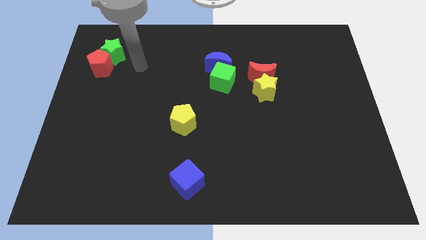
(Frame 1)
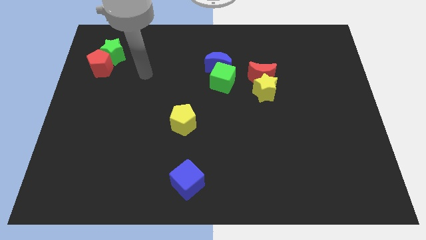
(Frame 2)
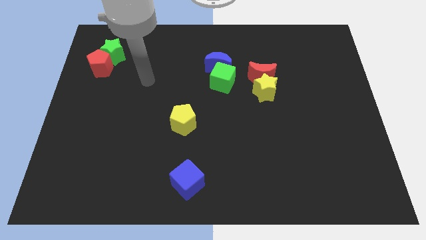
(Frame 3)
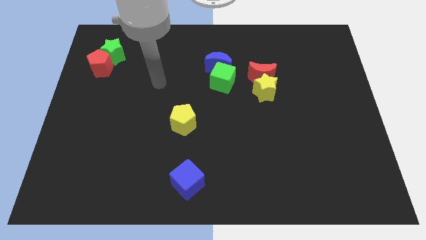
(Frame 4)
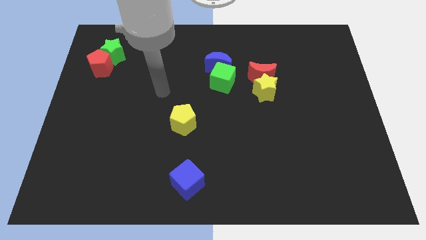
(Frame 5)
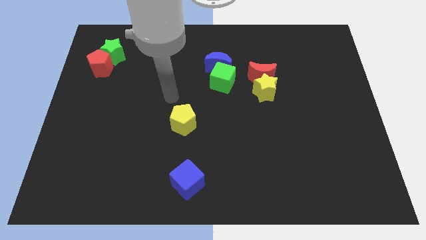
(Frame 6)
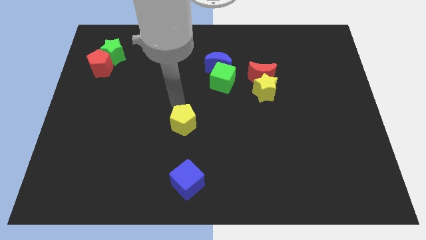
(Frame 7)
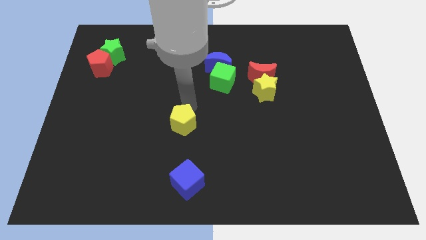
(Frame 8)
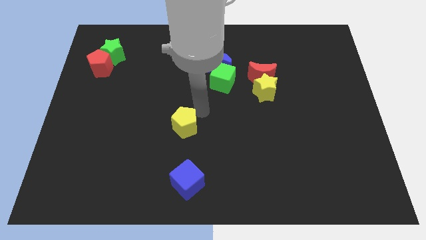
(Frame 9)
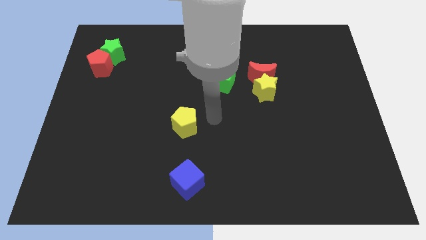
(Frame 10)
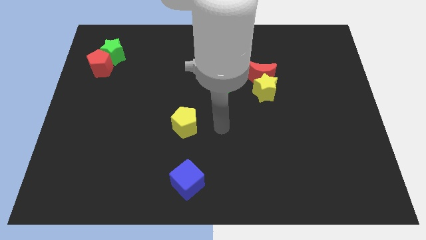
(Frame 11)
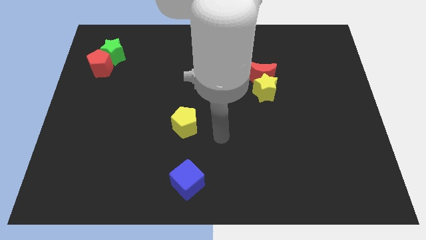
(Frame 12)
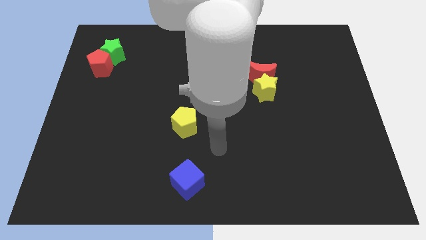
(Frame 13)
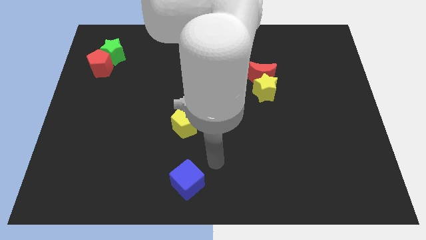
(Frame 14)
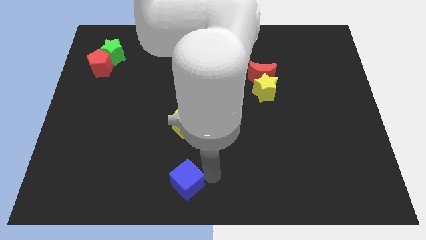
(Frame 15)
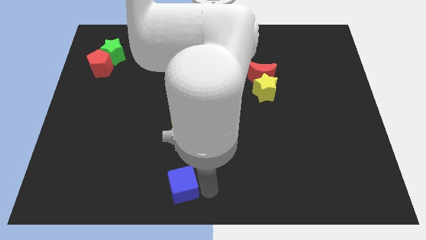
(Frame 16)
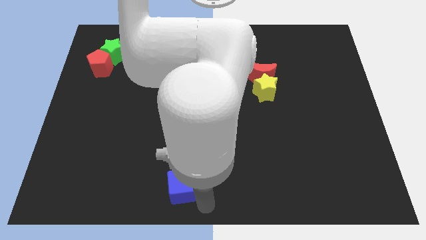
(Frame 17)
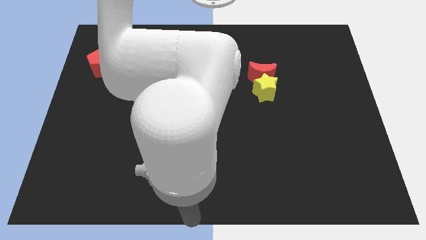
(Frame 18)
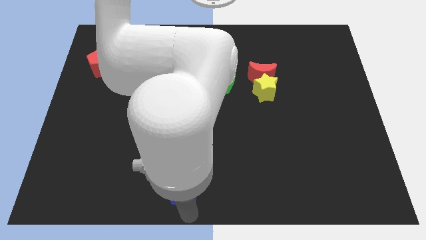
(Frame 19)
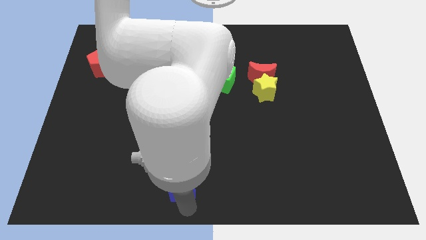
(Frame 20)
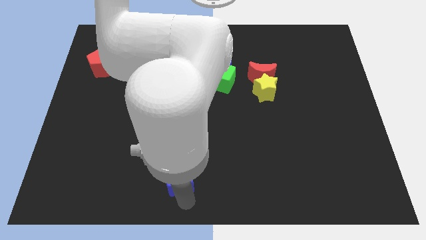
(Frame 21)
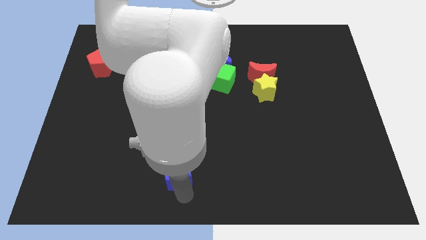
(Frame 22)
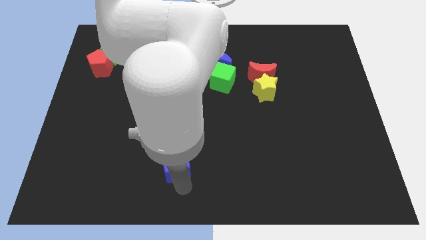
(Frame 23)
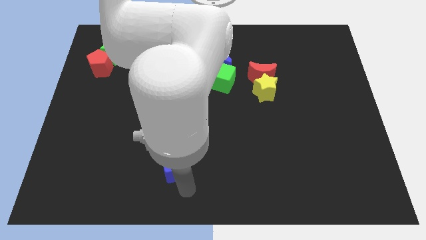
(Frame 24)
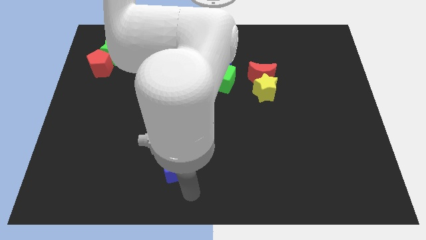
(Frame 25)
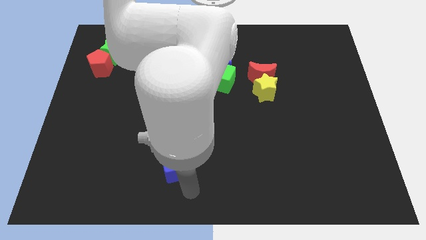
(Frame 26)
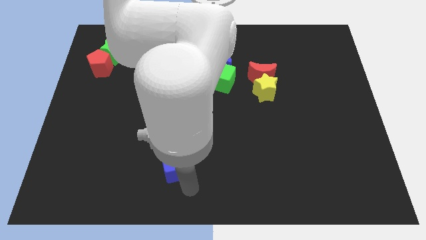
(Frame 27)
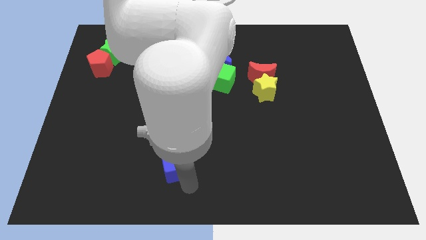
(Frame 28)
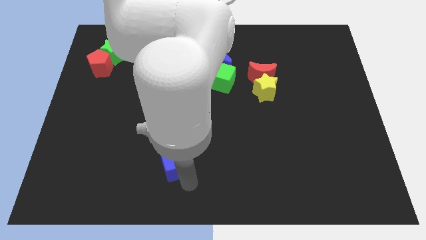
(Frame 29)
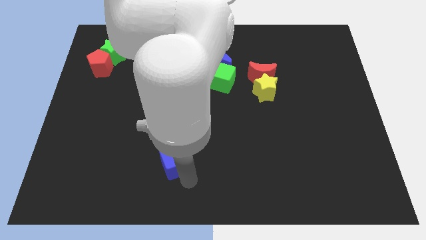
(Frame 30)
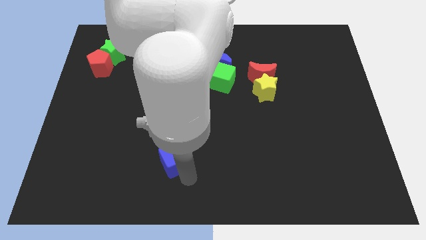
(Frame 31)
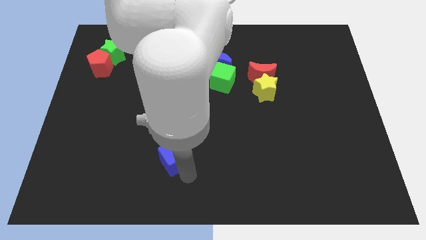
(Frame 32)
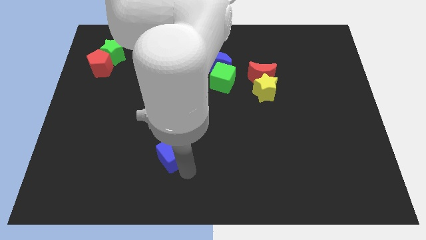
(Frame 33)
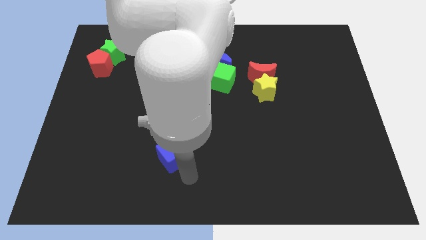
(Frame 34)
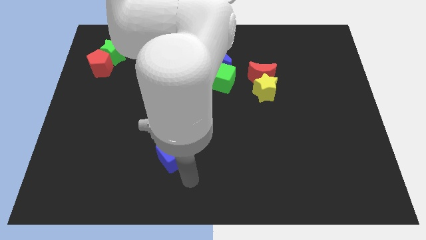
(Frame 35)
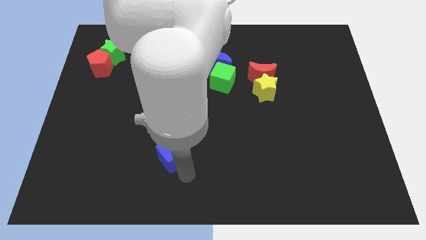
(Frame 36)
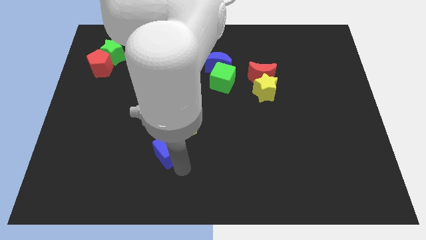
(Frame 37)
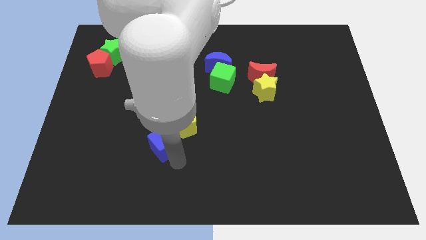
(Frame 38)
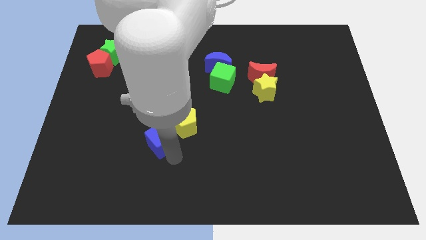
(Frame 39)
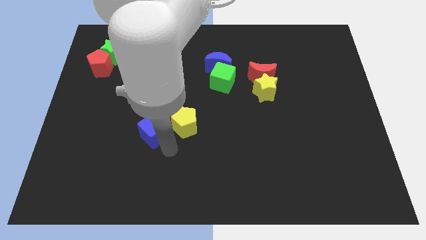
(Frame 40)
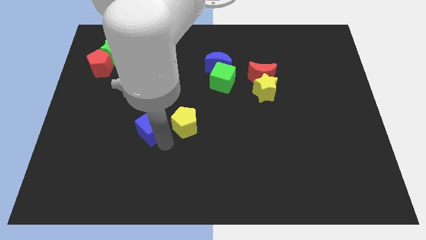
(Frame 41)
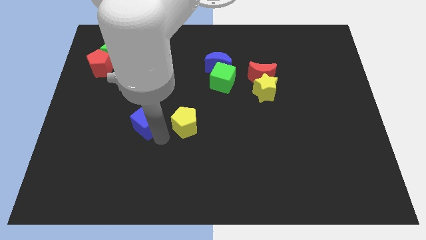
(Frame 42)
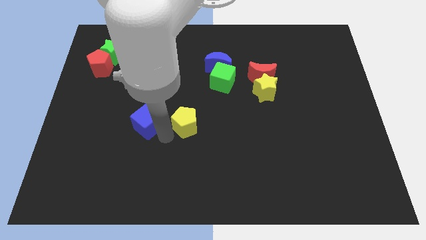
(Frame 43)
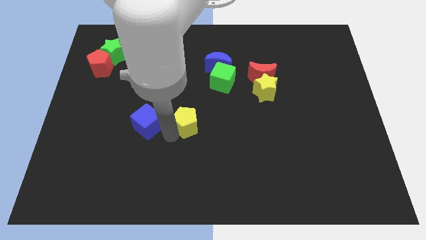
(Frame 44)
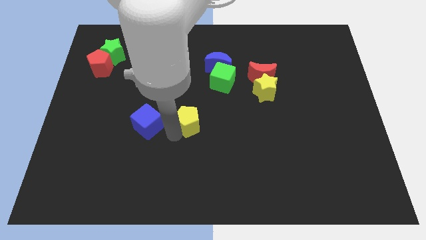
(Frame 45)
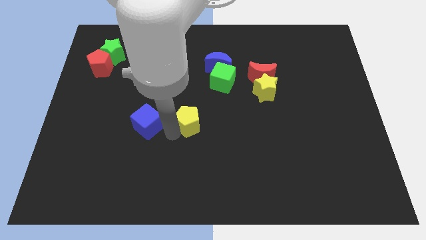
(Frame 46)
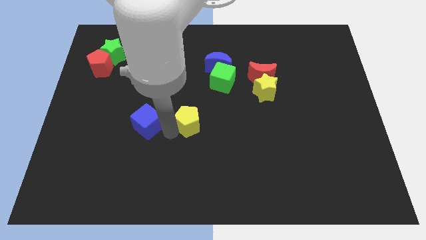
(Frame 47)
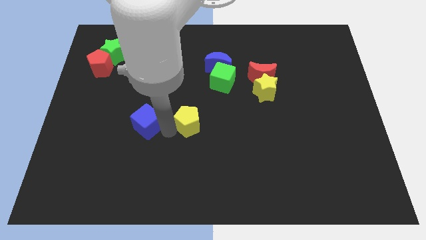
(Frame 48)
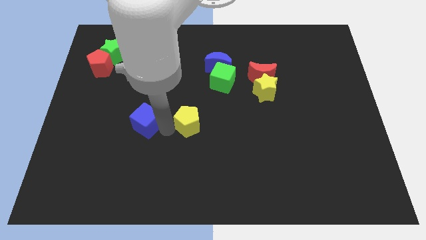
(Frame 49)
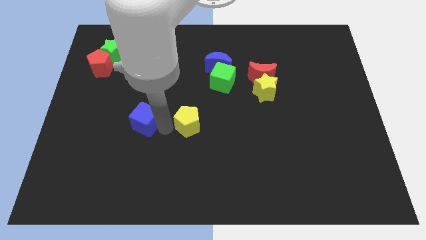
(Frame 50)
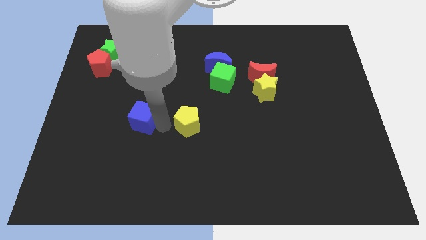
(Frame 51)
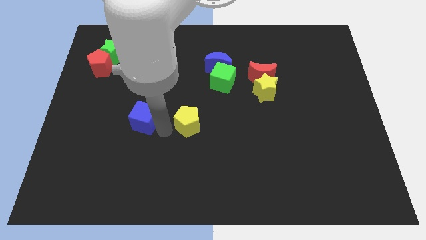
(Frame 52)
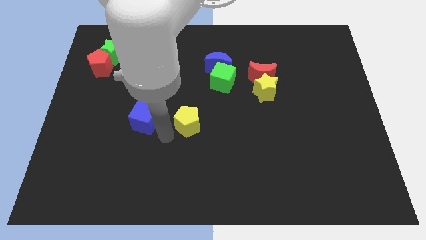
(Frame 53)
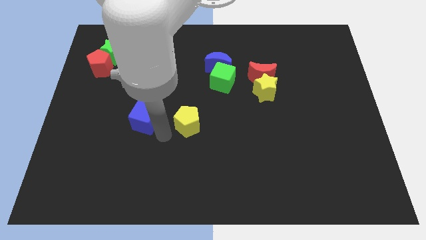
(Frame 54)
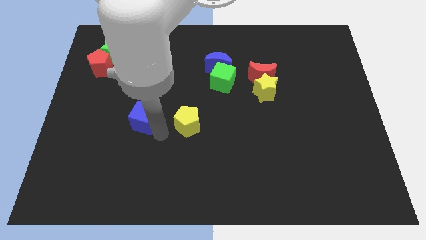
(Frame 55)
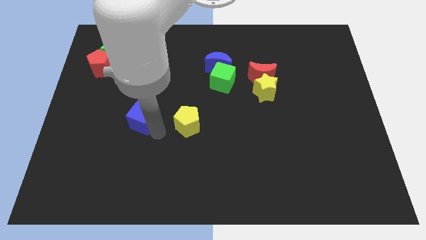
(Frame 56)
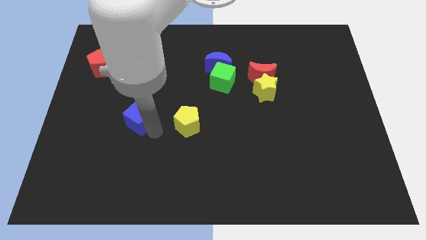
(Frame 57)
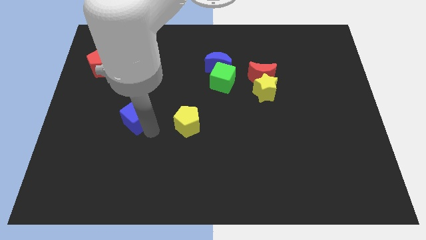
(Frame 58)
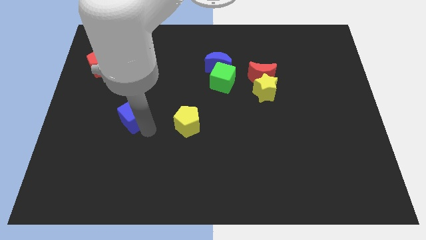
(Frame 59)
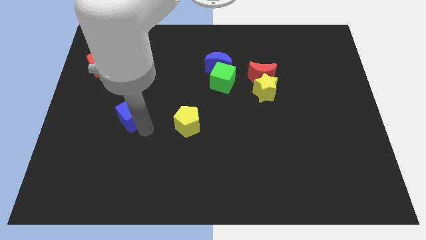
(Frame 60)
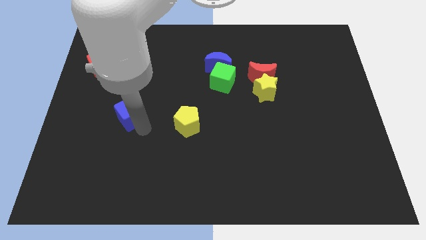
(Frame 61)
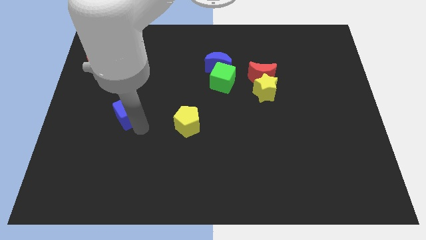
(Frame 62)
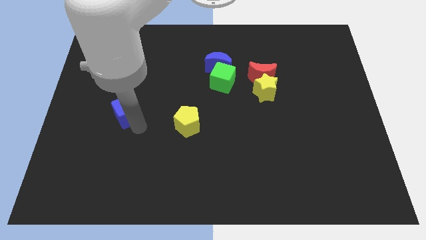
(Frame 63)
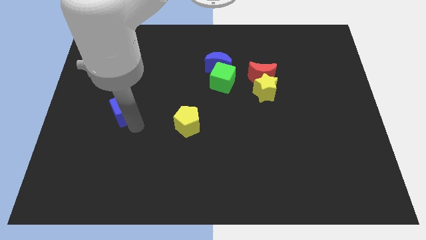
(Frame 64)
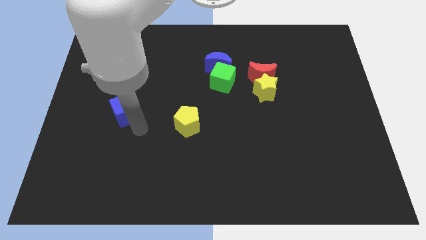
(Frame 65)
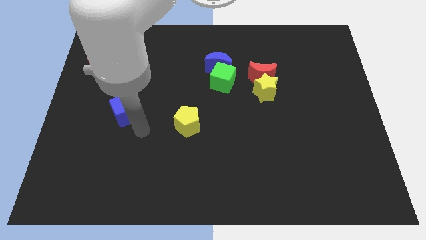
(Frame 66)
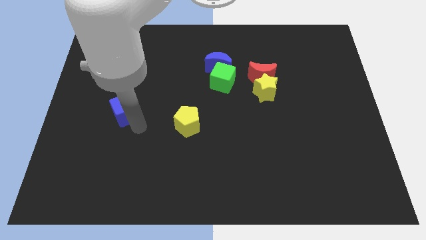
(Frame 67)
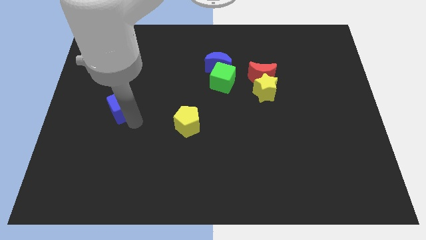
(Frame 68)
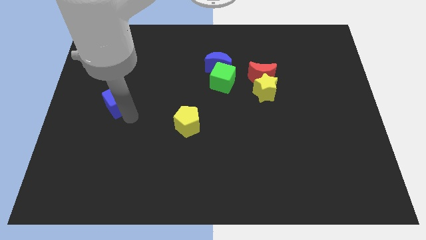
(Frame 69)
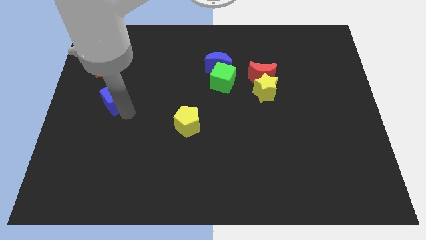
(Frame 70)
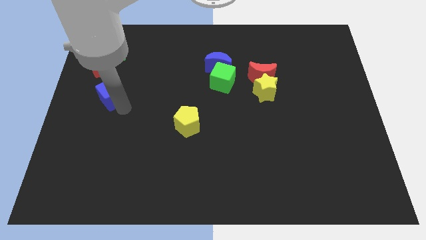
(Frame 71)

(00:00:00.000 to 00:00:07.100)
move the blue cube below the green star

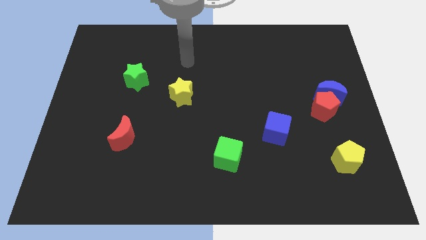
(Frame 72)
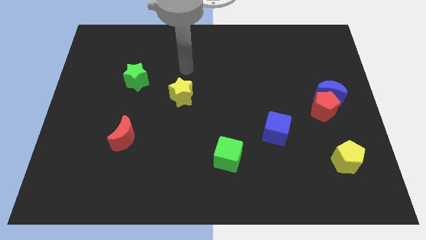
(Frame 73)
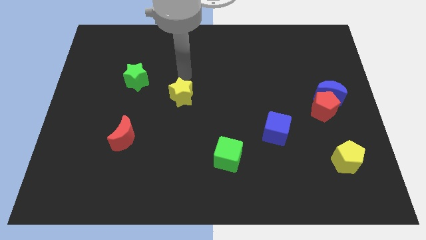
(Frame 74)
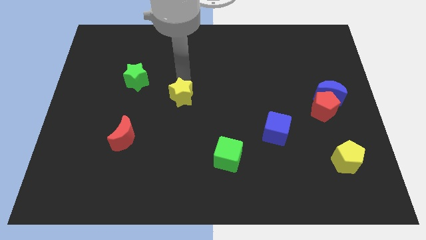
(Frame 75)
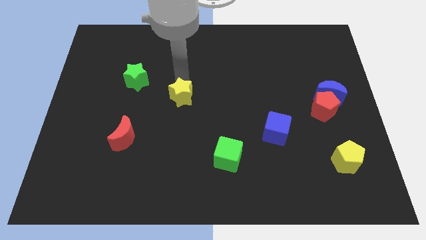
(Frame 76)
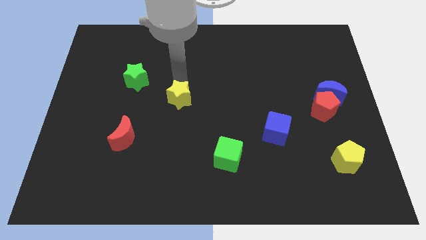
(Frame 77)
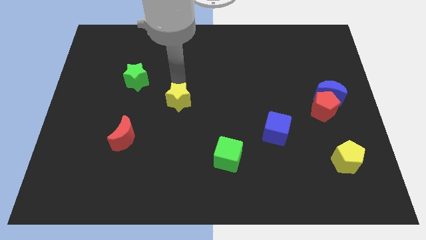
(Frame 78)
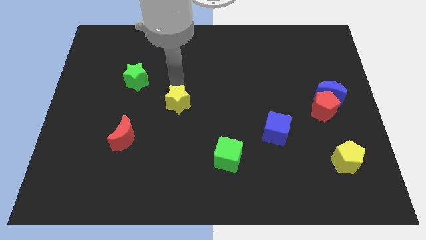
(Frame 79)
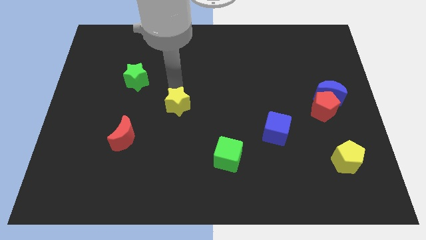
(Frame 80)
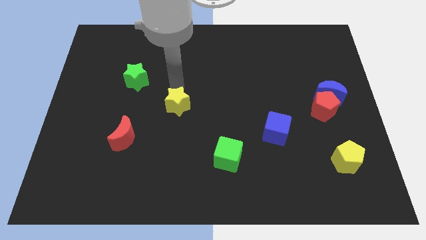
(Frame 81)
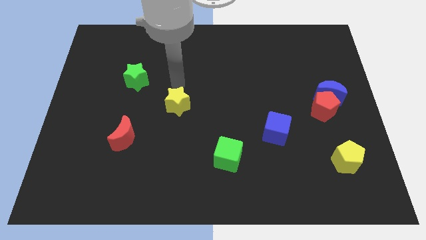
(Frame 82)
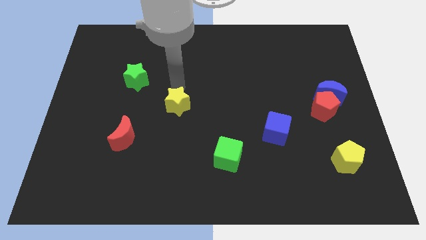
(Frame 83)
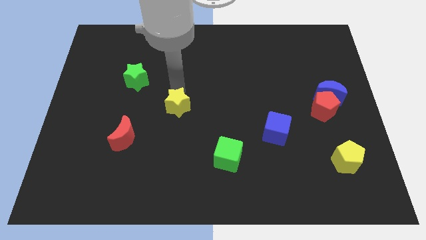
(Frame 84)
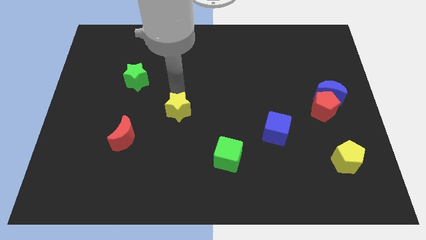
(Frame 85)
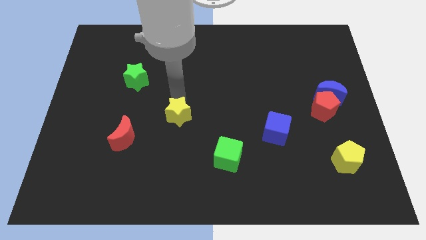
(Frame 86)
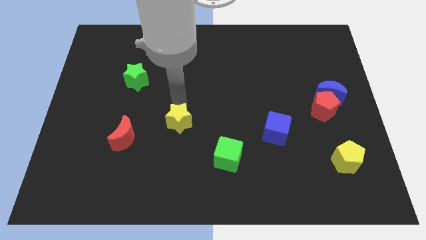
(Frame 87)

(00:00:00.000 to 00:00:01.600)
slide the yellow star right of the red moon
